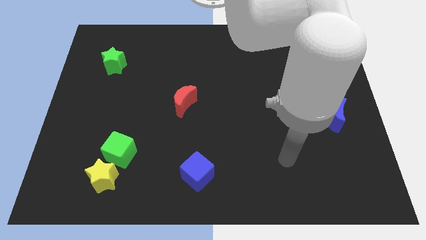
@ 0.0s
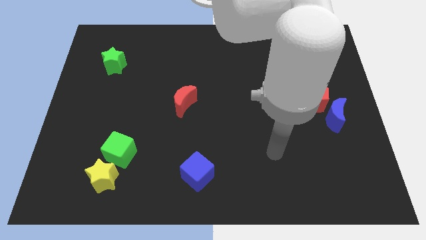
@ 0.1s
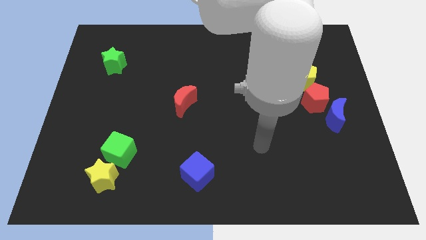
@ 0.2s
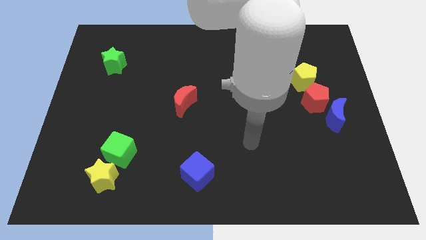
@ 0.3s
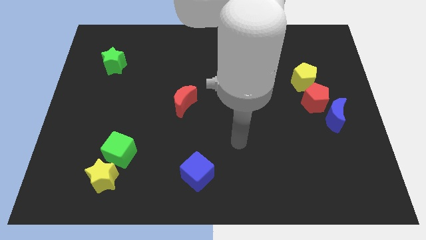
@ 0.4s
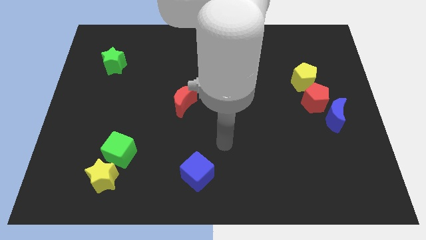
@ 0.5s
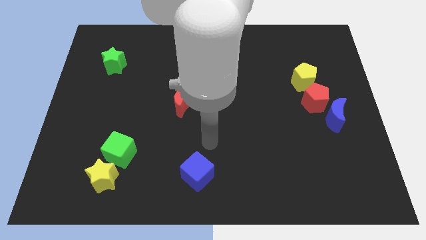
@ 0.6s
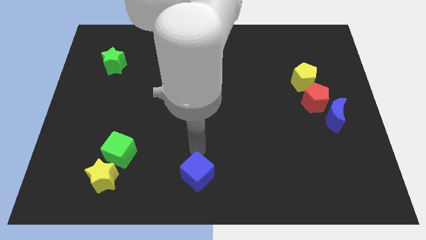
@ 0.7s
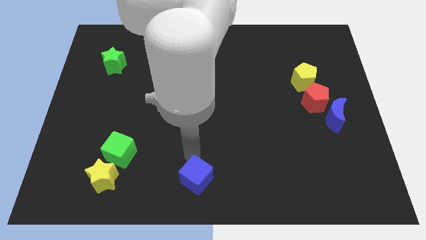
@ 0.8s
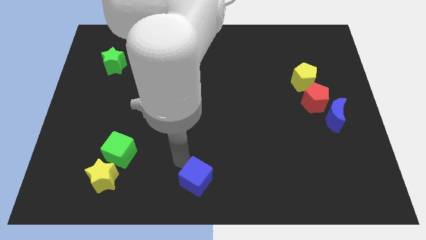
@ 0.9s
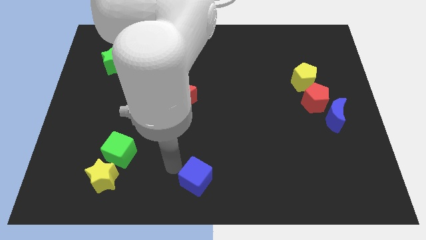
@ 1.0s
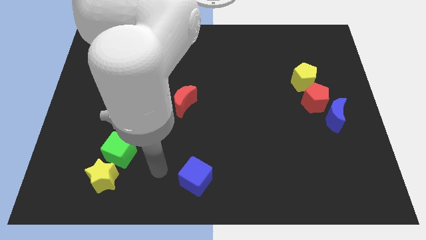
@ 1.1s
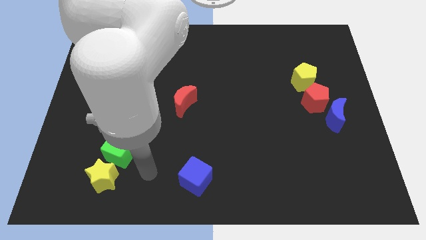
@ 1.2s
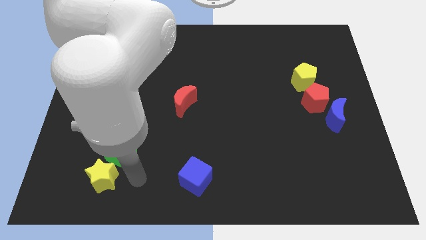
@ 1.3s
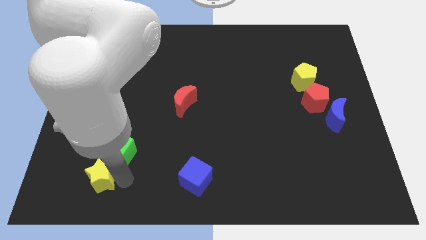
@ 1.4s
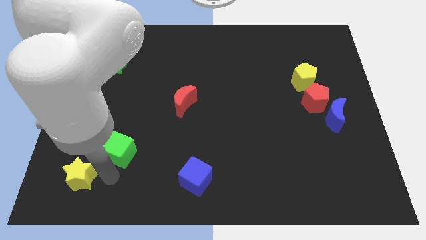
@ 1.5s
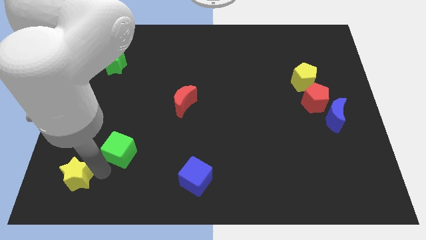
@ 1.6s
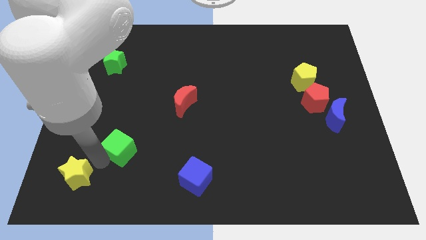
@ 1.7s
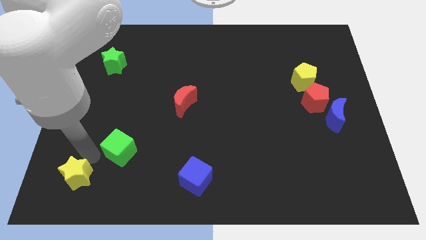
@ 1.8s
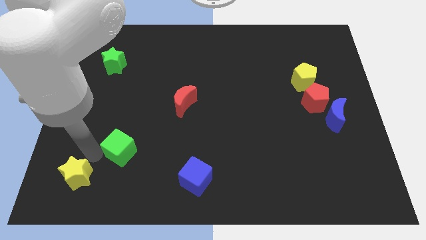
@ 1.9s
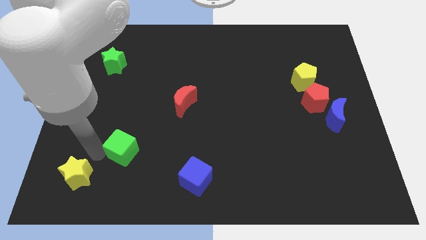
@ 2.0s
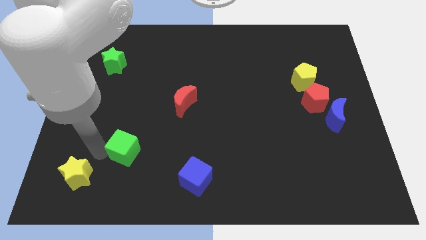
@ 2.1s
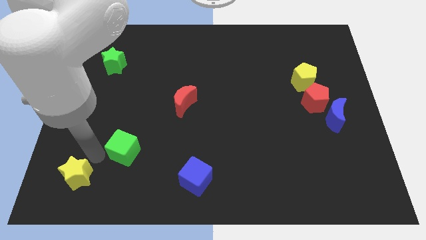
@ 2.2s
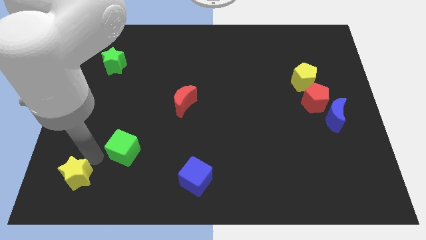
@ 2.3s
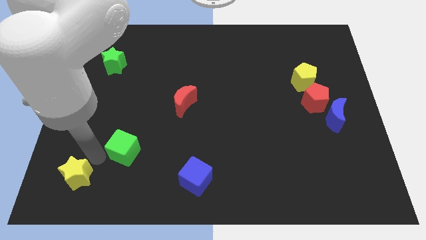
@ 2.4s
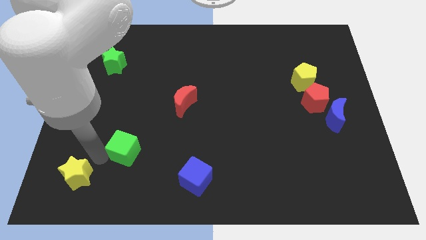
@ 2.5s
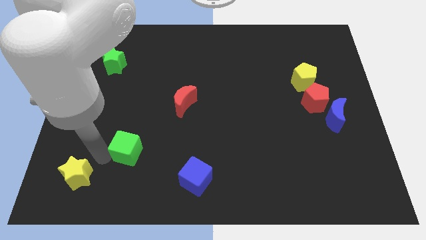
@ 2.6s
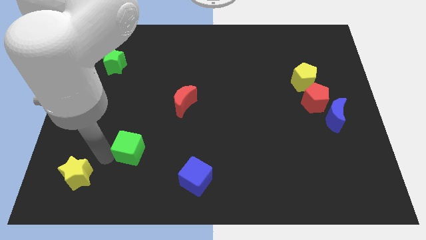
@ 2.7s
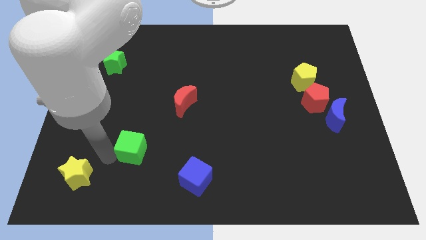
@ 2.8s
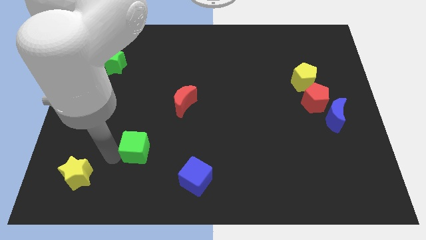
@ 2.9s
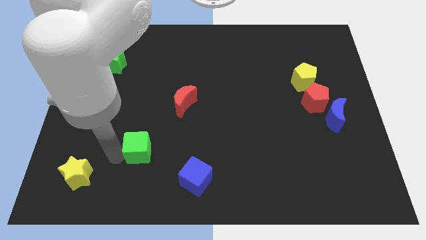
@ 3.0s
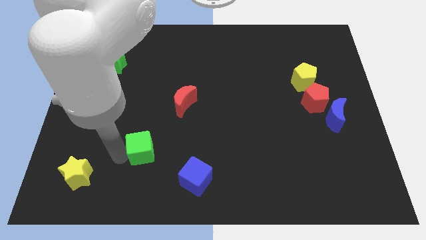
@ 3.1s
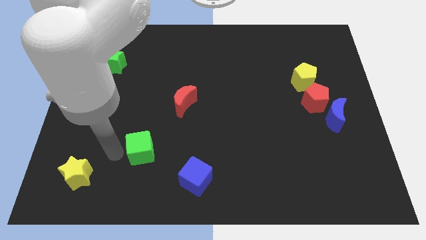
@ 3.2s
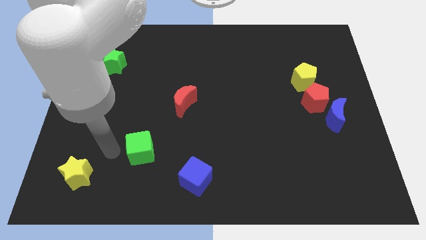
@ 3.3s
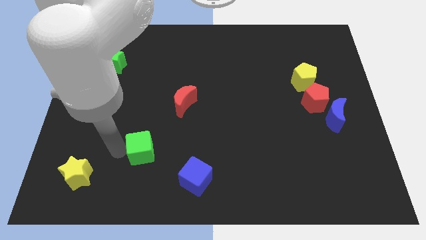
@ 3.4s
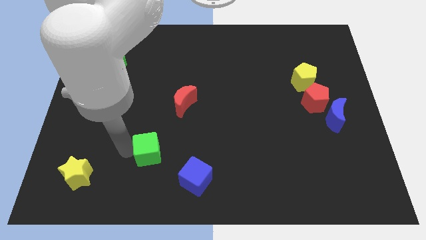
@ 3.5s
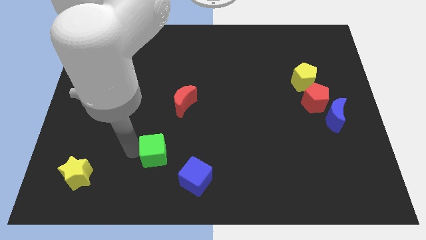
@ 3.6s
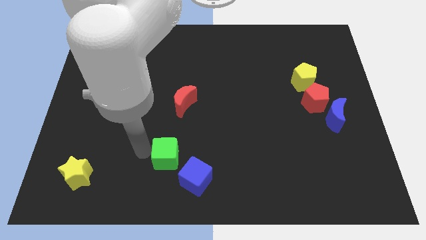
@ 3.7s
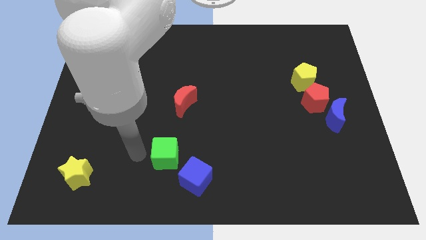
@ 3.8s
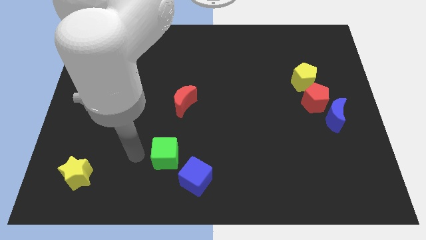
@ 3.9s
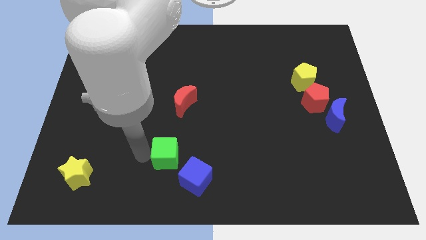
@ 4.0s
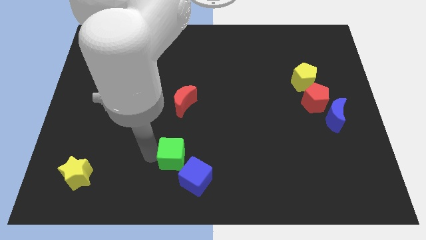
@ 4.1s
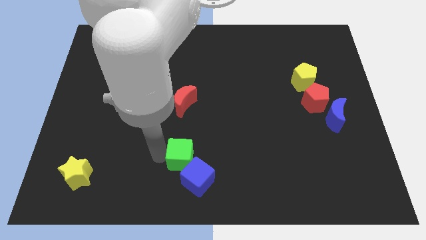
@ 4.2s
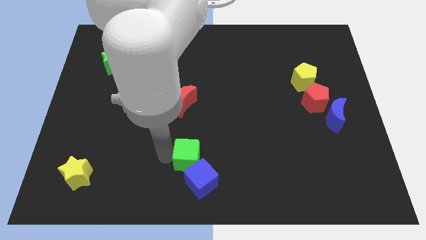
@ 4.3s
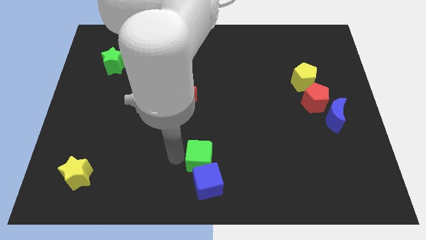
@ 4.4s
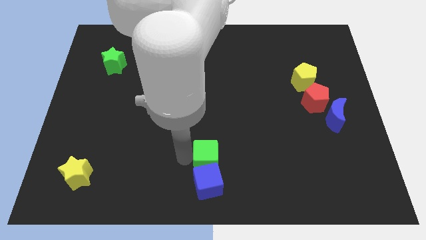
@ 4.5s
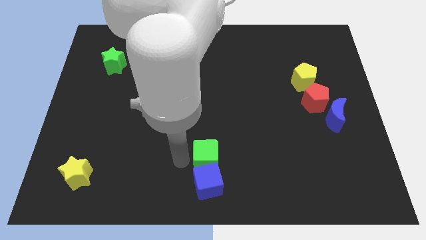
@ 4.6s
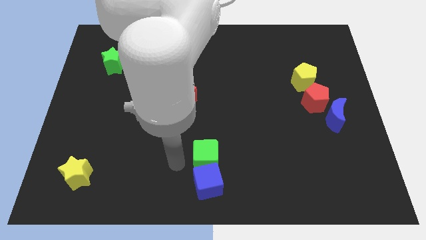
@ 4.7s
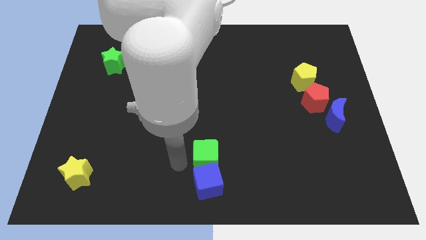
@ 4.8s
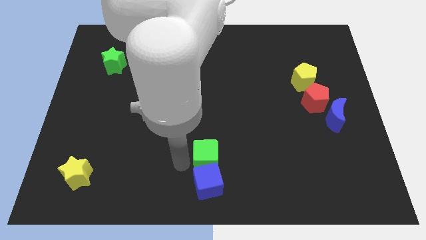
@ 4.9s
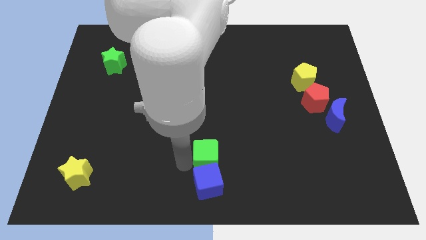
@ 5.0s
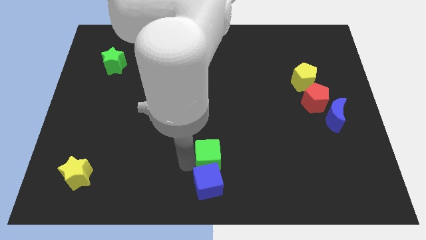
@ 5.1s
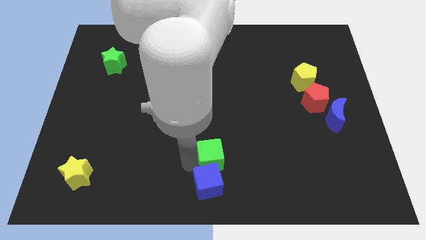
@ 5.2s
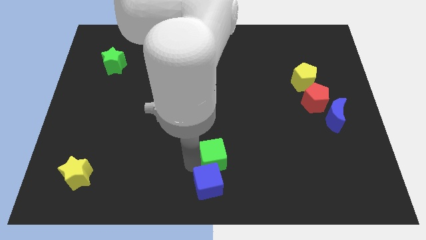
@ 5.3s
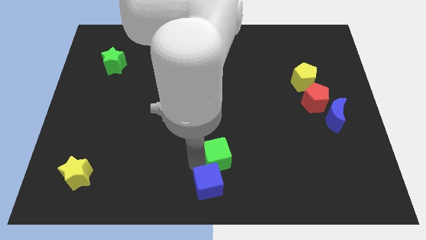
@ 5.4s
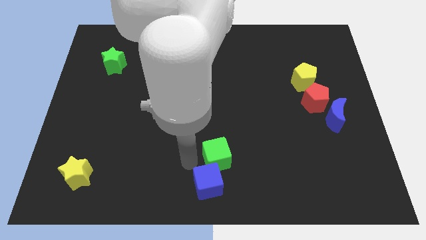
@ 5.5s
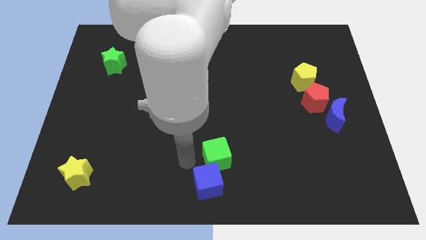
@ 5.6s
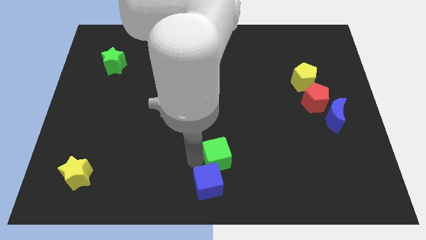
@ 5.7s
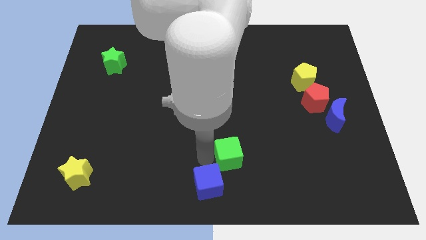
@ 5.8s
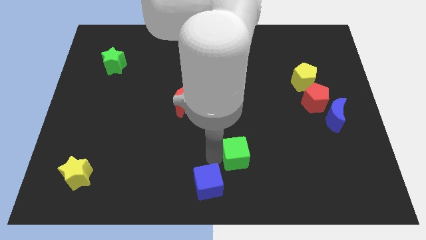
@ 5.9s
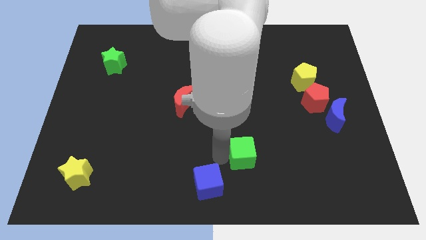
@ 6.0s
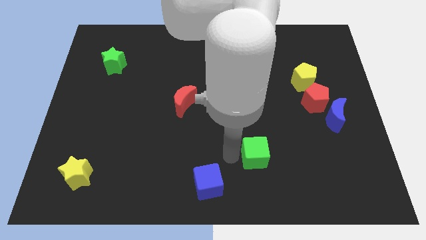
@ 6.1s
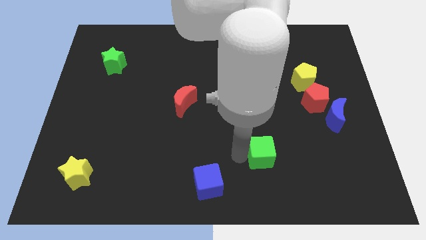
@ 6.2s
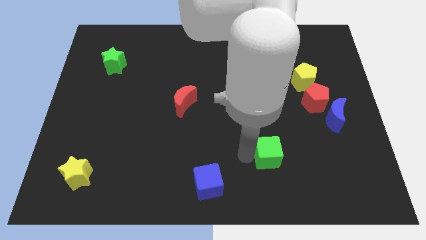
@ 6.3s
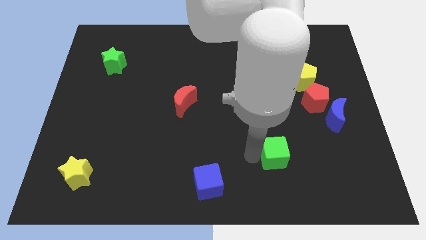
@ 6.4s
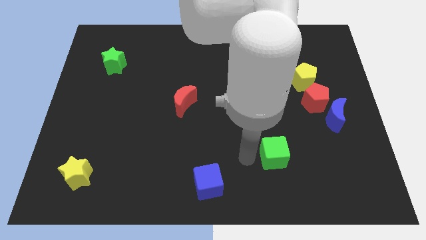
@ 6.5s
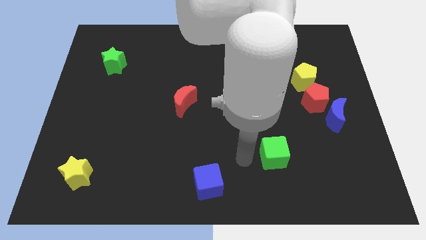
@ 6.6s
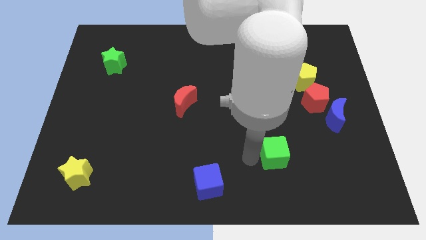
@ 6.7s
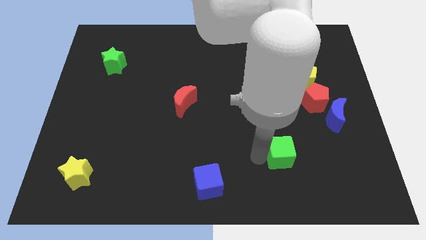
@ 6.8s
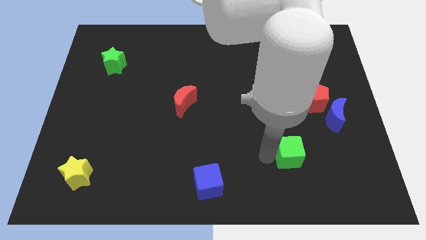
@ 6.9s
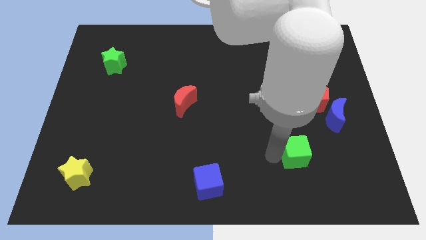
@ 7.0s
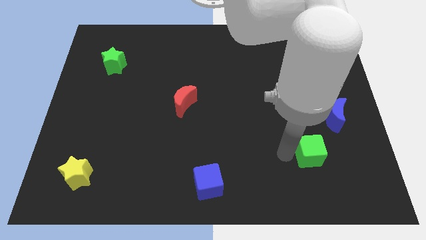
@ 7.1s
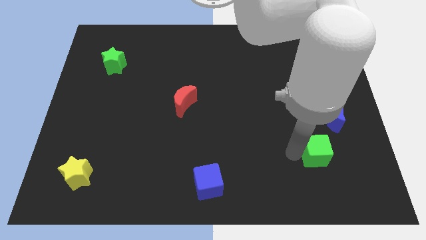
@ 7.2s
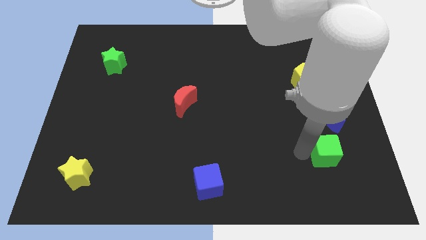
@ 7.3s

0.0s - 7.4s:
put the green cube below the blue moon
